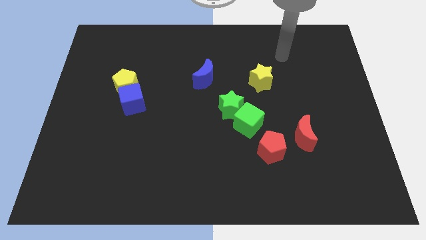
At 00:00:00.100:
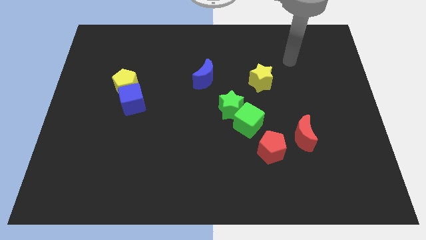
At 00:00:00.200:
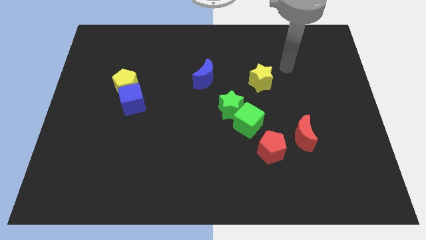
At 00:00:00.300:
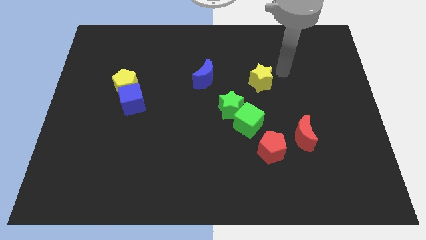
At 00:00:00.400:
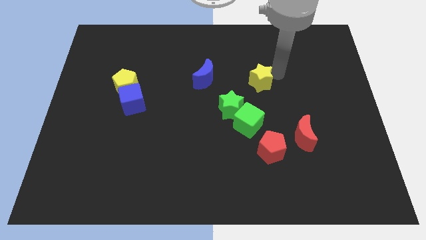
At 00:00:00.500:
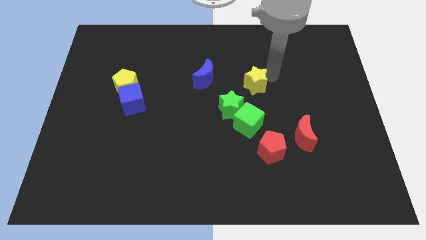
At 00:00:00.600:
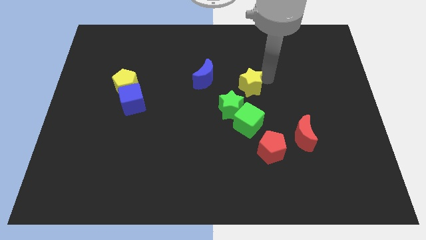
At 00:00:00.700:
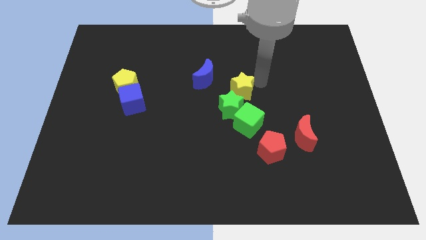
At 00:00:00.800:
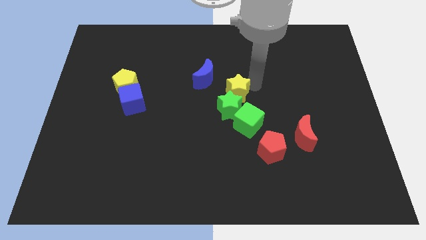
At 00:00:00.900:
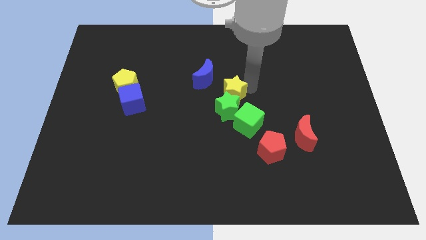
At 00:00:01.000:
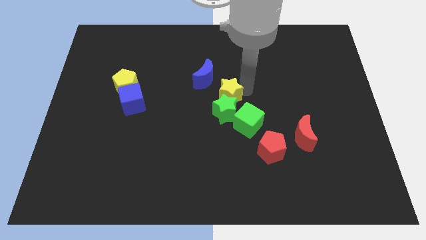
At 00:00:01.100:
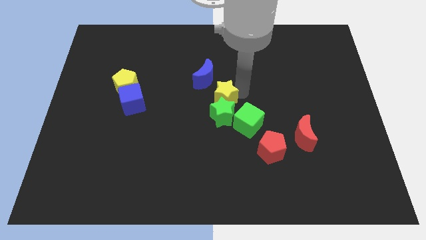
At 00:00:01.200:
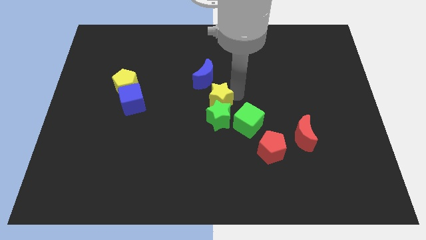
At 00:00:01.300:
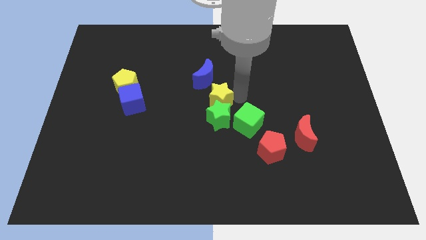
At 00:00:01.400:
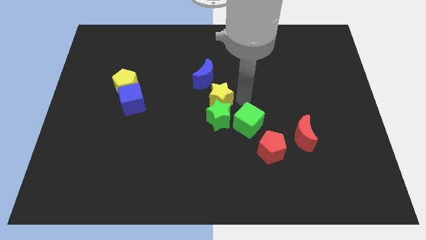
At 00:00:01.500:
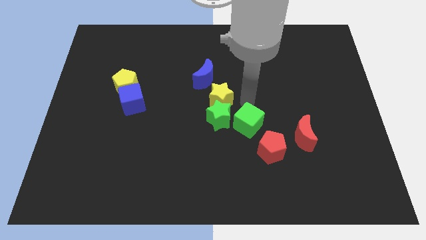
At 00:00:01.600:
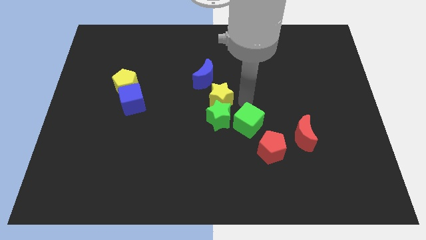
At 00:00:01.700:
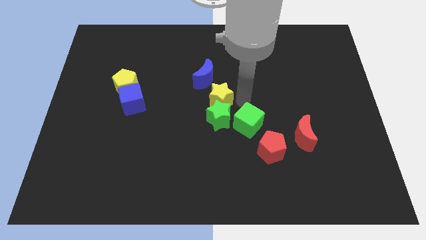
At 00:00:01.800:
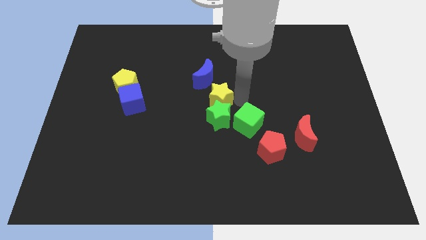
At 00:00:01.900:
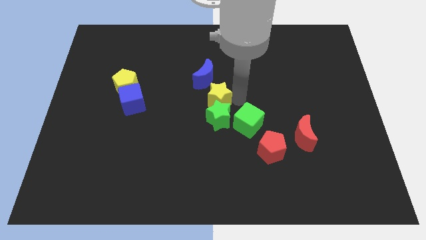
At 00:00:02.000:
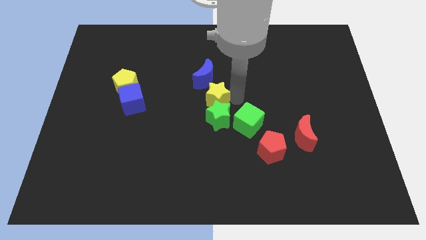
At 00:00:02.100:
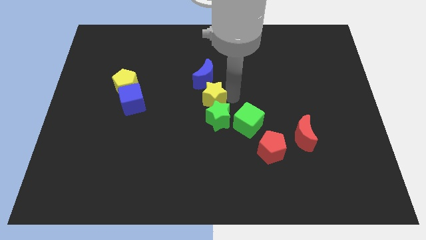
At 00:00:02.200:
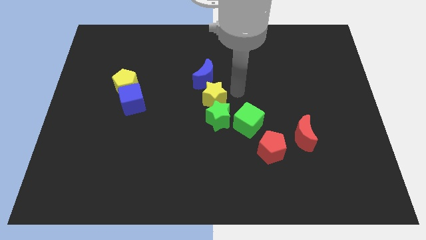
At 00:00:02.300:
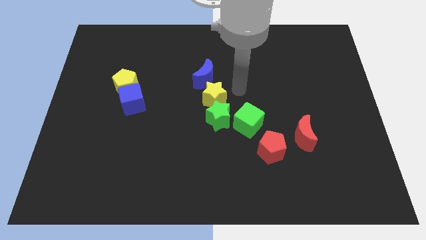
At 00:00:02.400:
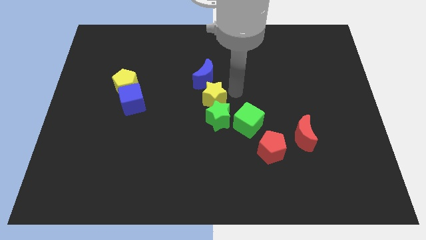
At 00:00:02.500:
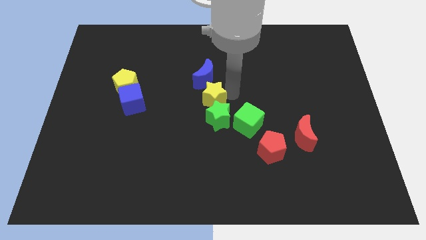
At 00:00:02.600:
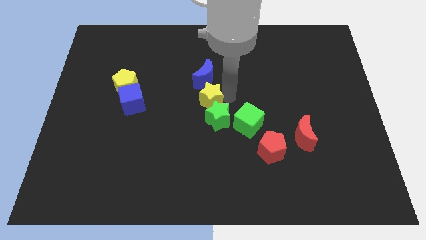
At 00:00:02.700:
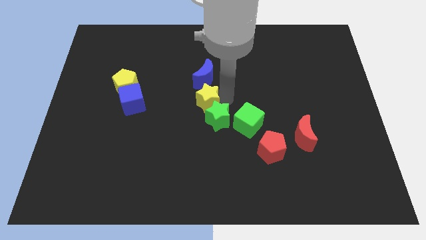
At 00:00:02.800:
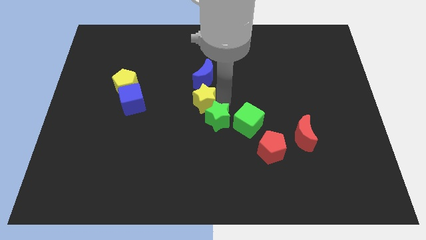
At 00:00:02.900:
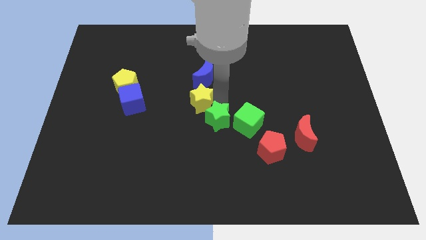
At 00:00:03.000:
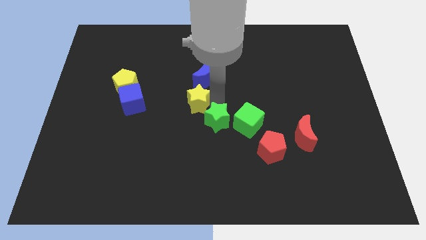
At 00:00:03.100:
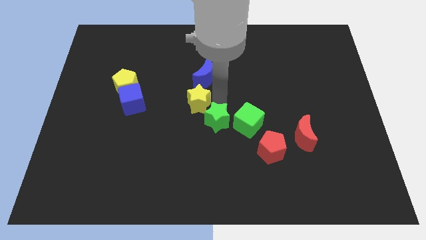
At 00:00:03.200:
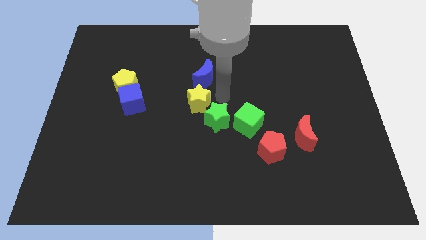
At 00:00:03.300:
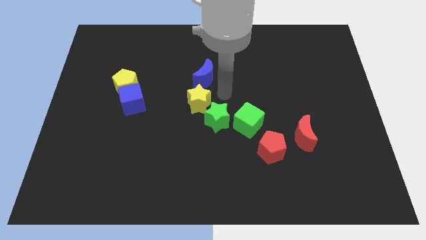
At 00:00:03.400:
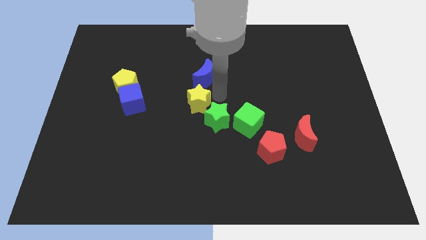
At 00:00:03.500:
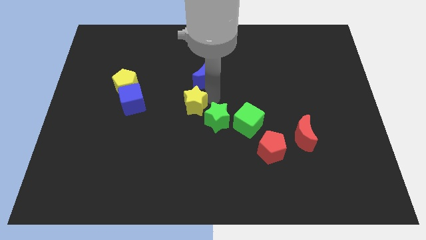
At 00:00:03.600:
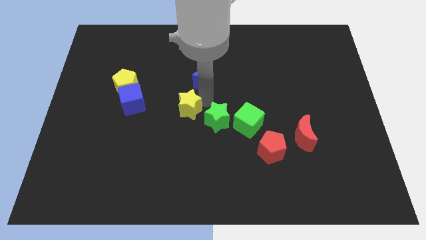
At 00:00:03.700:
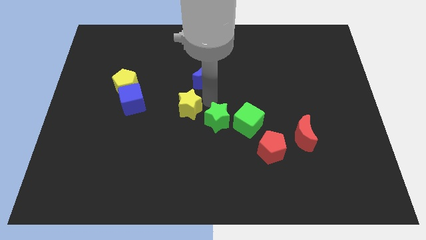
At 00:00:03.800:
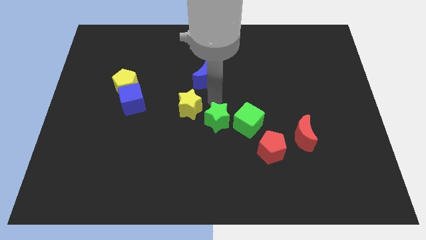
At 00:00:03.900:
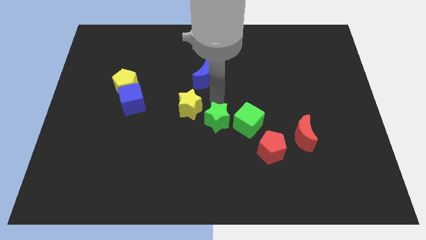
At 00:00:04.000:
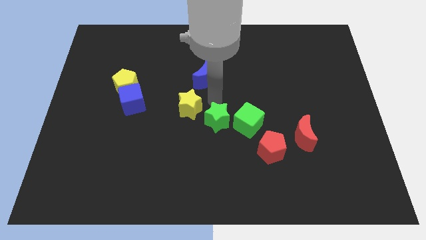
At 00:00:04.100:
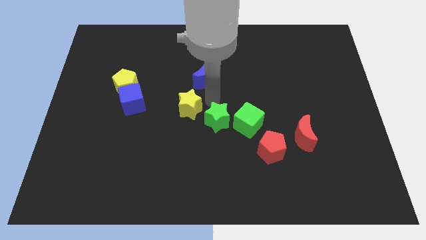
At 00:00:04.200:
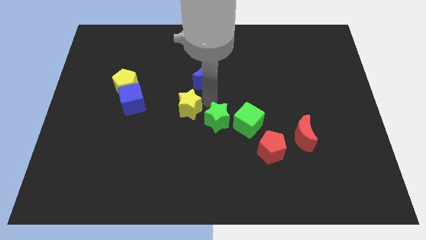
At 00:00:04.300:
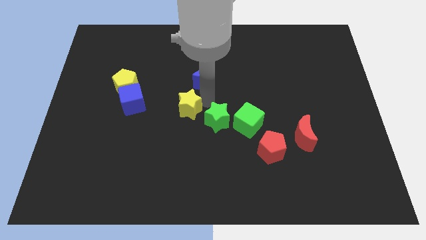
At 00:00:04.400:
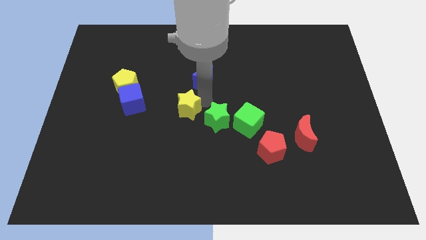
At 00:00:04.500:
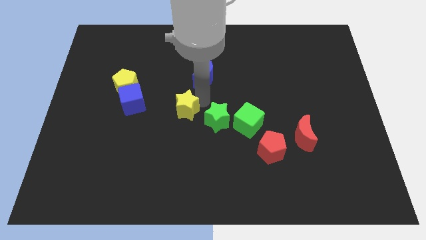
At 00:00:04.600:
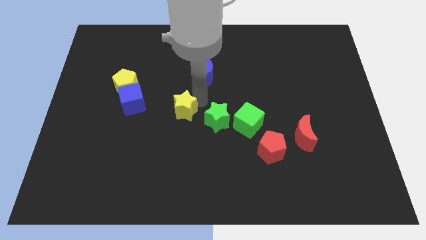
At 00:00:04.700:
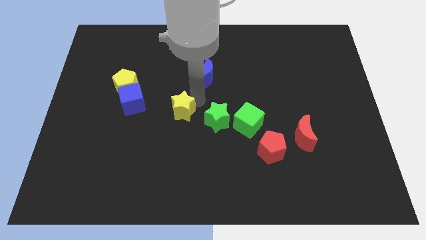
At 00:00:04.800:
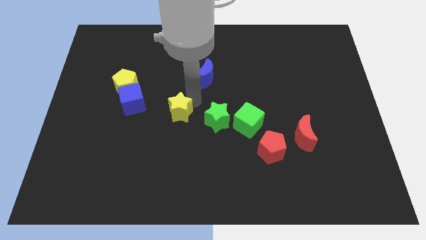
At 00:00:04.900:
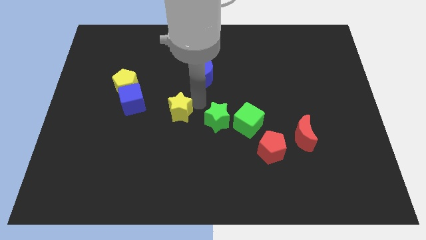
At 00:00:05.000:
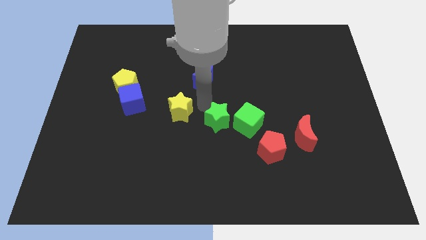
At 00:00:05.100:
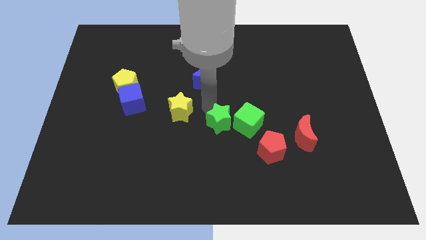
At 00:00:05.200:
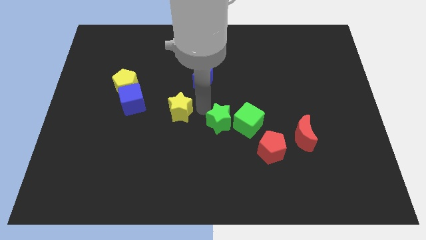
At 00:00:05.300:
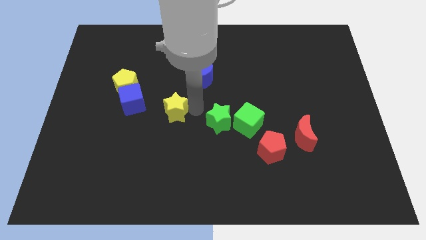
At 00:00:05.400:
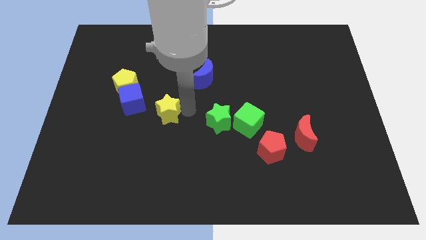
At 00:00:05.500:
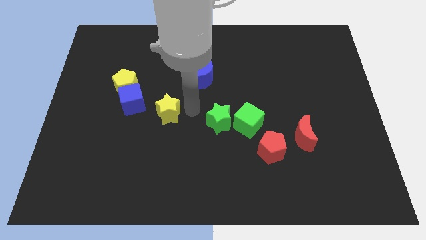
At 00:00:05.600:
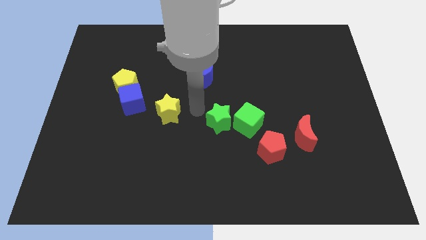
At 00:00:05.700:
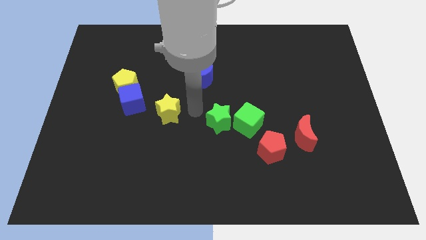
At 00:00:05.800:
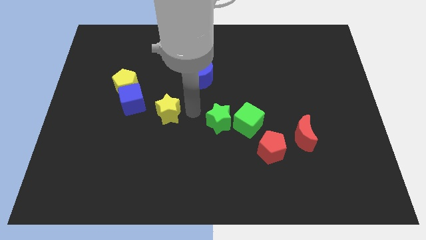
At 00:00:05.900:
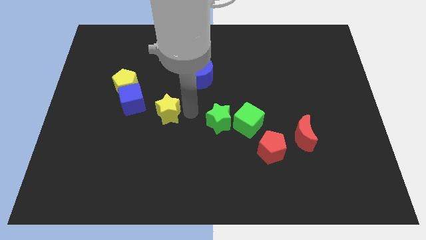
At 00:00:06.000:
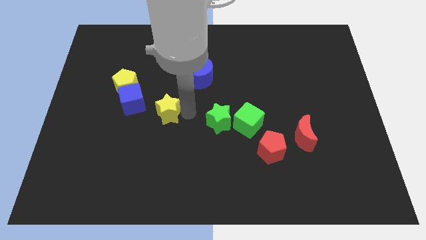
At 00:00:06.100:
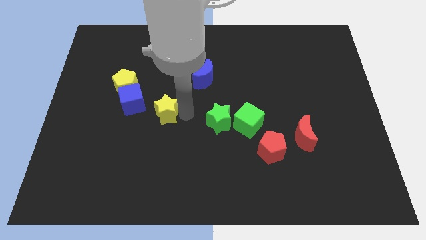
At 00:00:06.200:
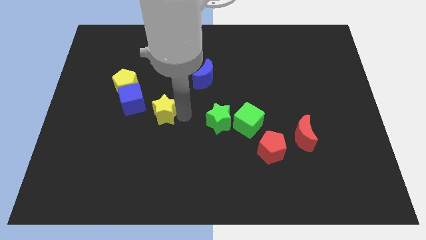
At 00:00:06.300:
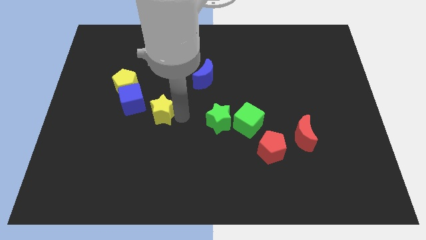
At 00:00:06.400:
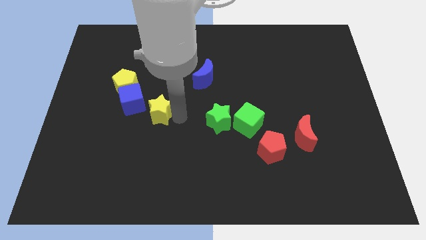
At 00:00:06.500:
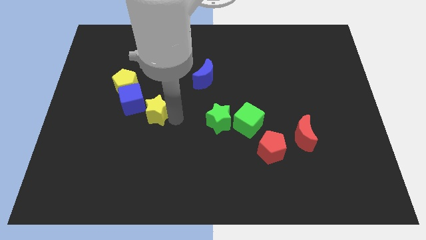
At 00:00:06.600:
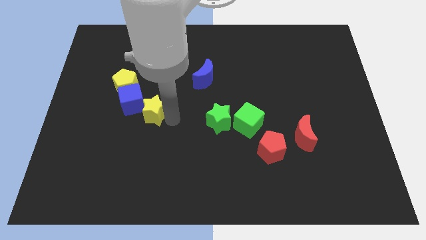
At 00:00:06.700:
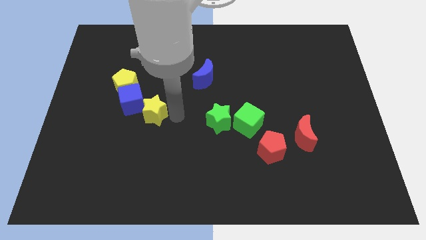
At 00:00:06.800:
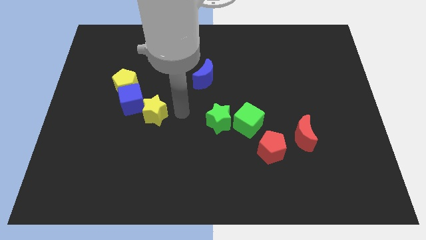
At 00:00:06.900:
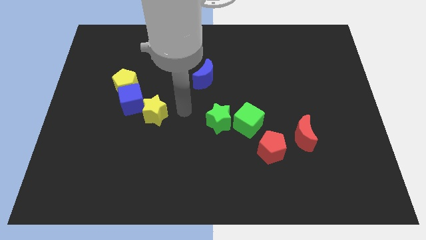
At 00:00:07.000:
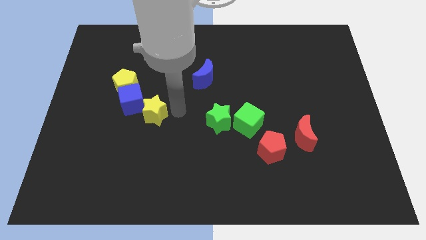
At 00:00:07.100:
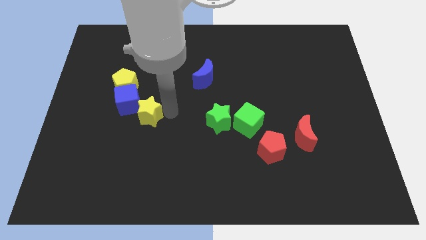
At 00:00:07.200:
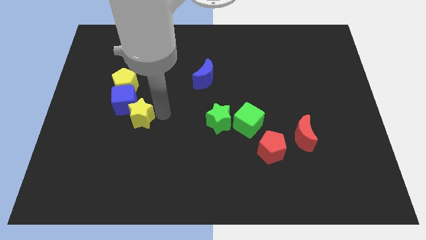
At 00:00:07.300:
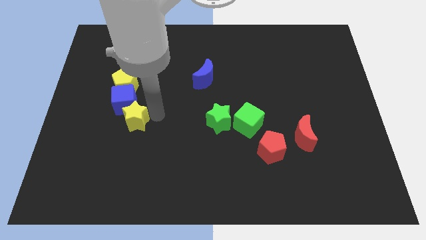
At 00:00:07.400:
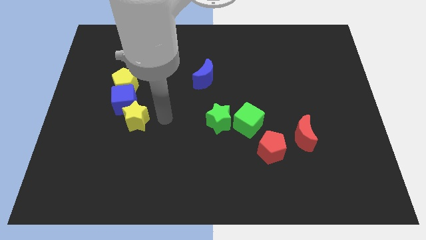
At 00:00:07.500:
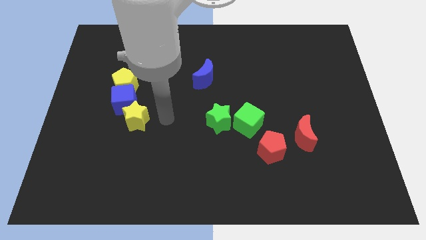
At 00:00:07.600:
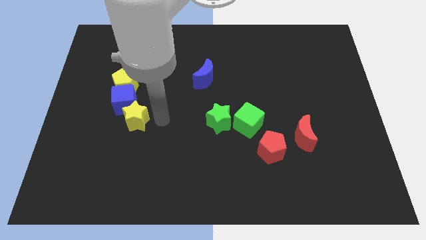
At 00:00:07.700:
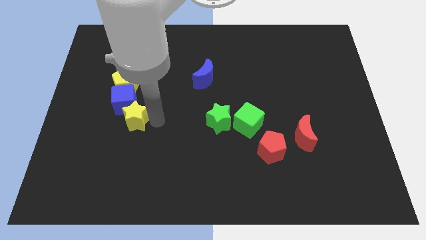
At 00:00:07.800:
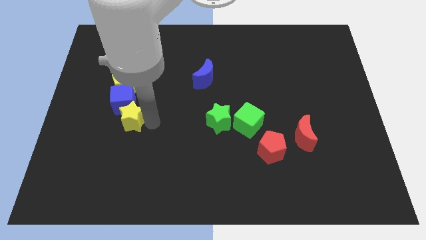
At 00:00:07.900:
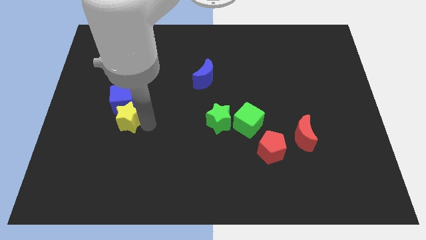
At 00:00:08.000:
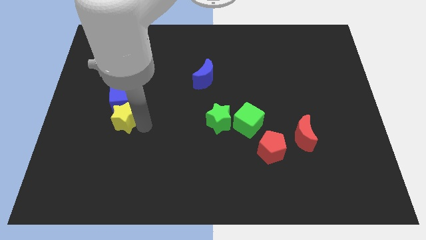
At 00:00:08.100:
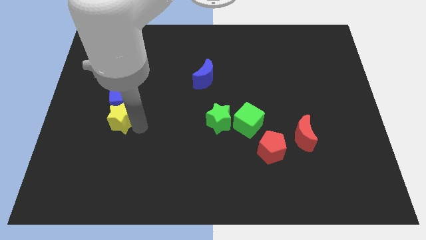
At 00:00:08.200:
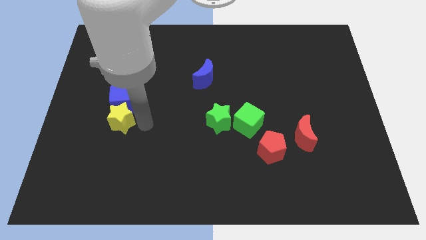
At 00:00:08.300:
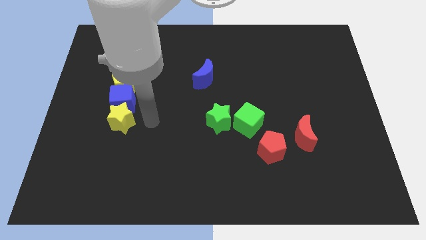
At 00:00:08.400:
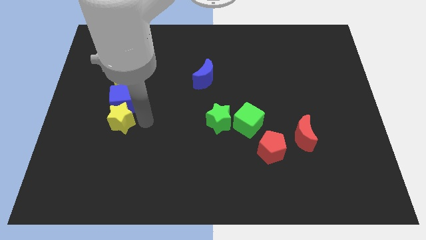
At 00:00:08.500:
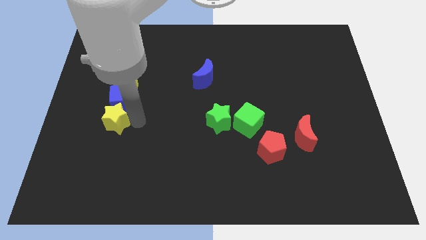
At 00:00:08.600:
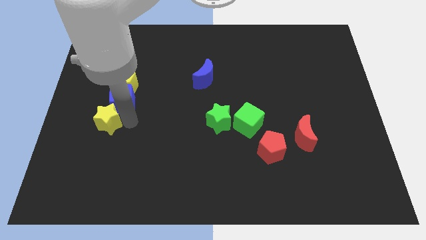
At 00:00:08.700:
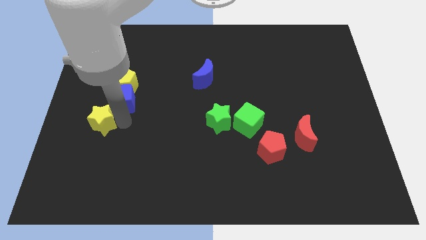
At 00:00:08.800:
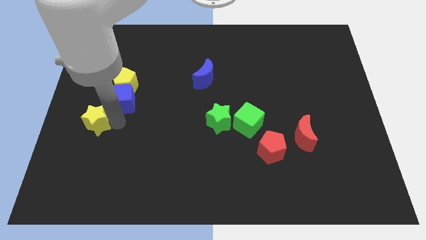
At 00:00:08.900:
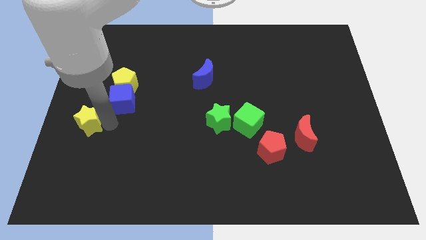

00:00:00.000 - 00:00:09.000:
put the yellow star to the left side of the board
